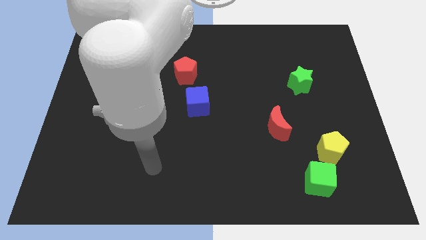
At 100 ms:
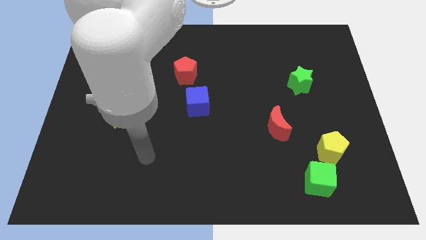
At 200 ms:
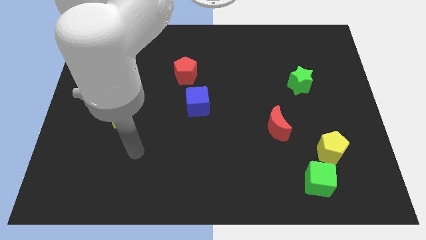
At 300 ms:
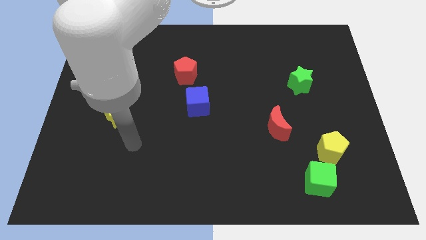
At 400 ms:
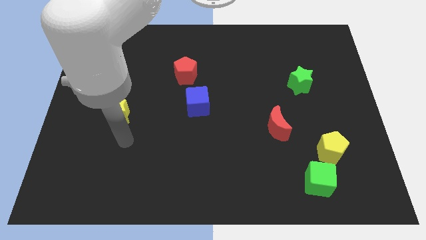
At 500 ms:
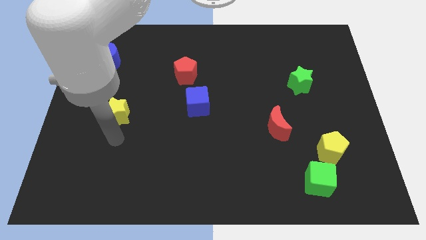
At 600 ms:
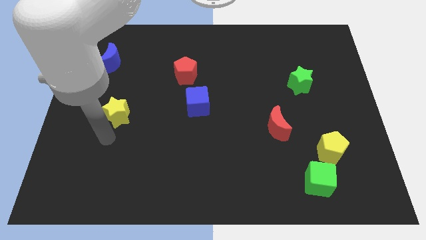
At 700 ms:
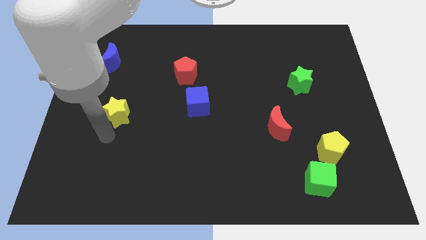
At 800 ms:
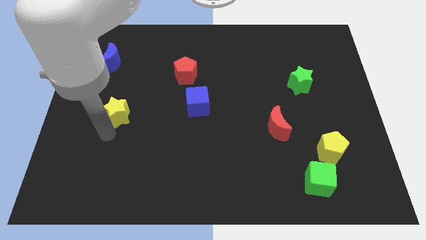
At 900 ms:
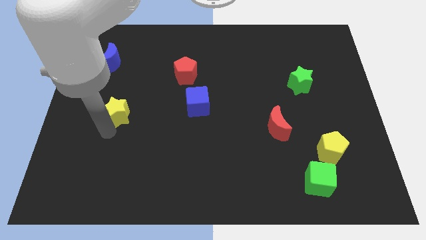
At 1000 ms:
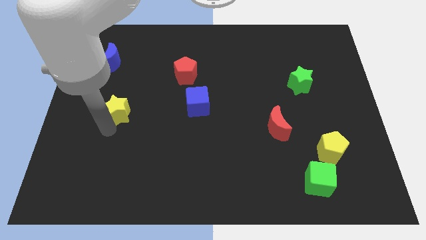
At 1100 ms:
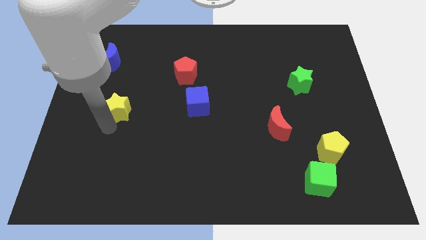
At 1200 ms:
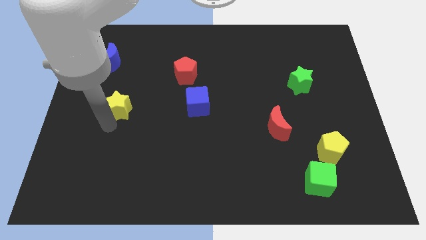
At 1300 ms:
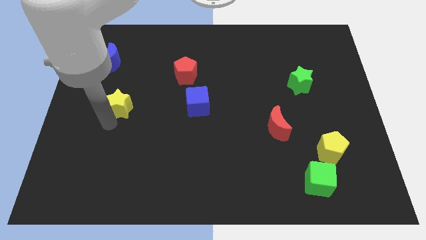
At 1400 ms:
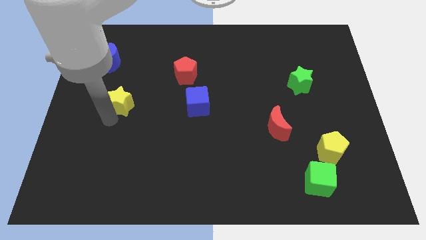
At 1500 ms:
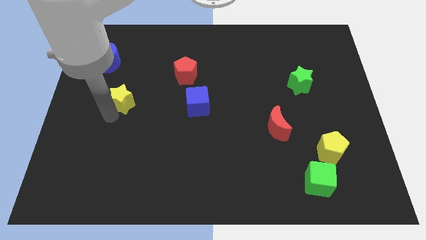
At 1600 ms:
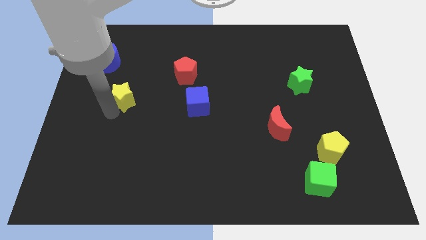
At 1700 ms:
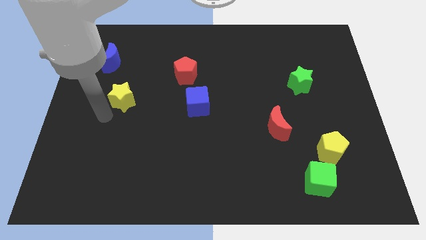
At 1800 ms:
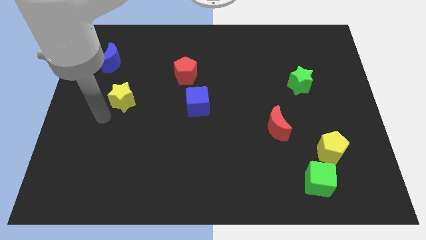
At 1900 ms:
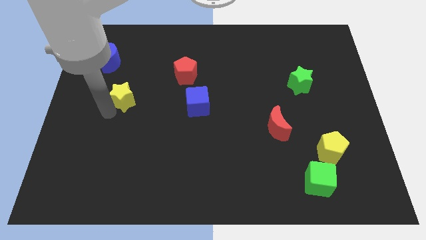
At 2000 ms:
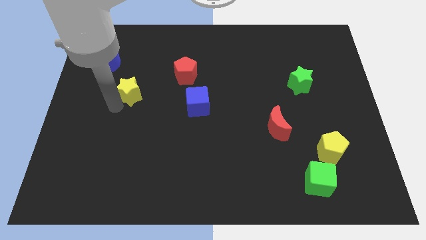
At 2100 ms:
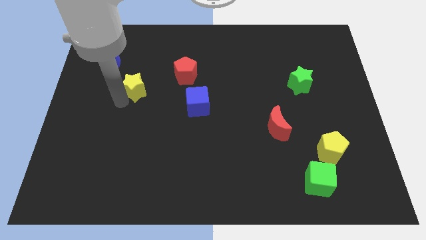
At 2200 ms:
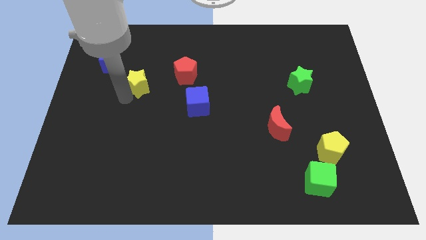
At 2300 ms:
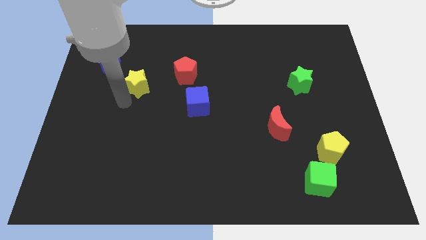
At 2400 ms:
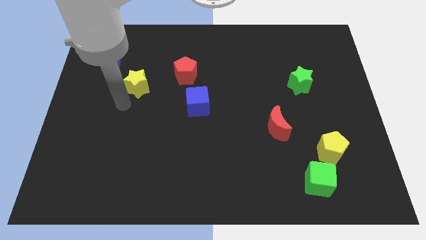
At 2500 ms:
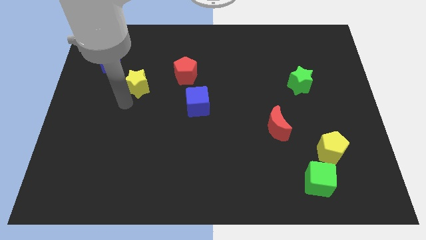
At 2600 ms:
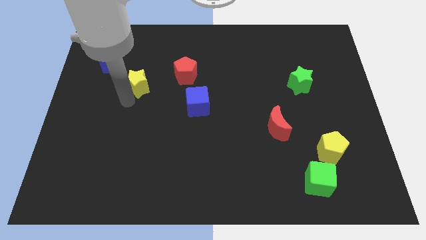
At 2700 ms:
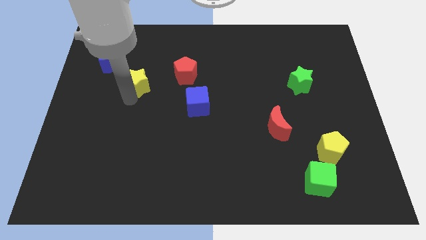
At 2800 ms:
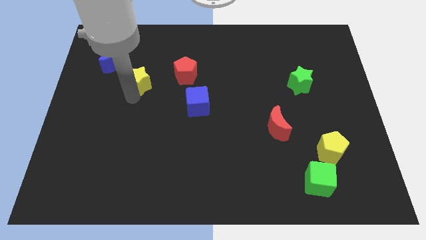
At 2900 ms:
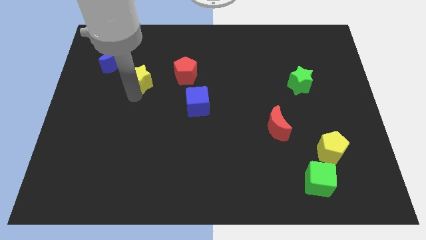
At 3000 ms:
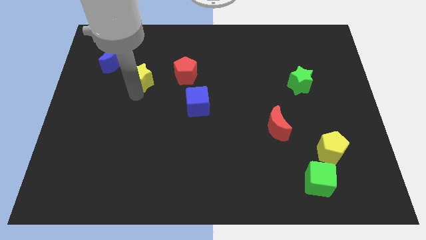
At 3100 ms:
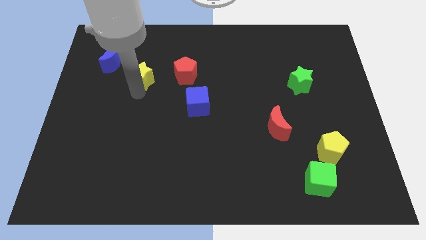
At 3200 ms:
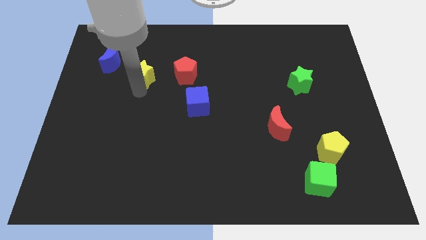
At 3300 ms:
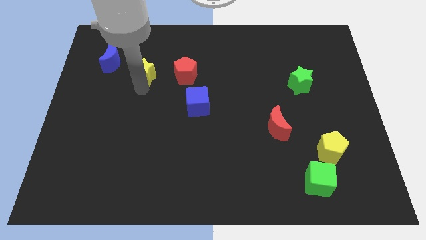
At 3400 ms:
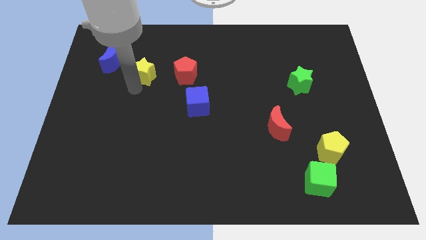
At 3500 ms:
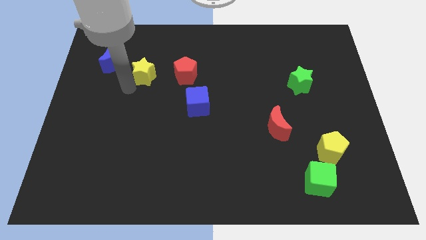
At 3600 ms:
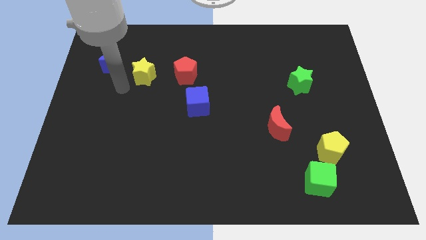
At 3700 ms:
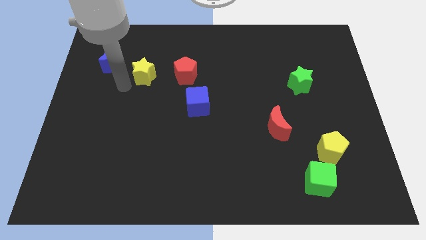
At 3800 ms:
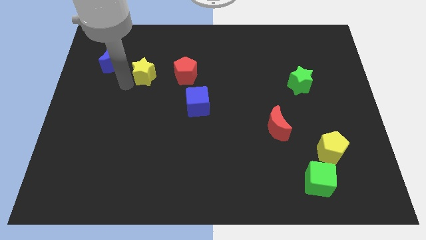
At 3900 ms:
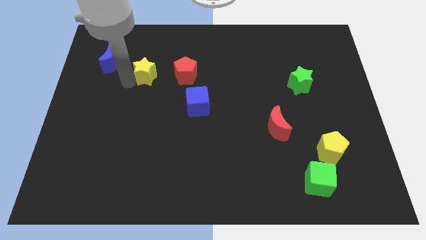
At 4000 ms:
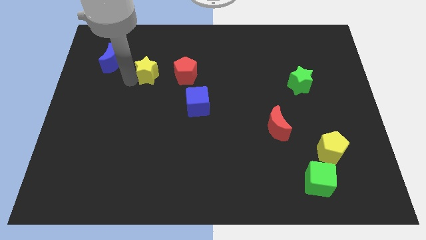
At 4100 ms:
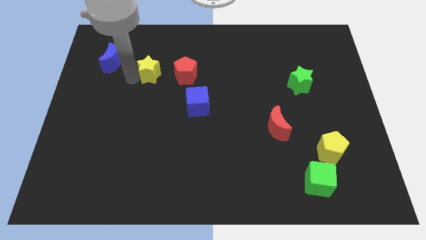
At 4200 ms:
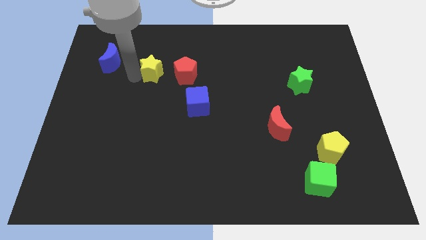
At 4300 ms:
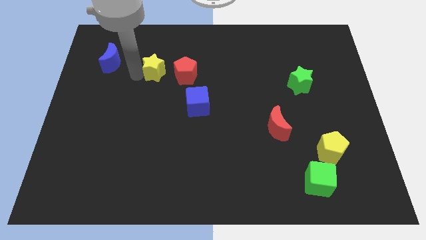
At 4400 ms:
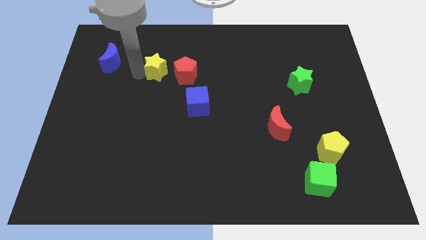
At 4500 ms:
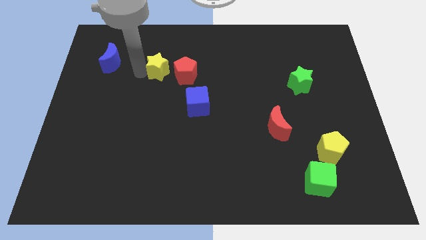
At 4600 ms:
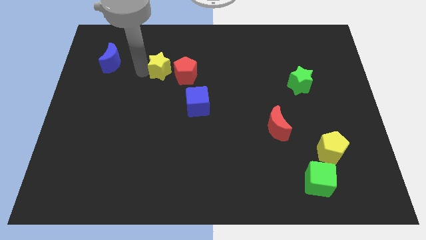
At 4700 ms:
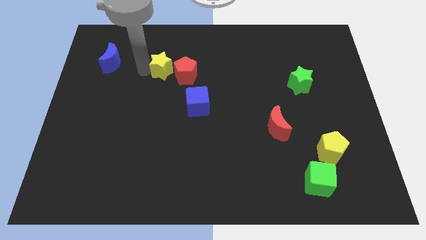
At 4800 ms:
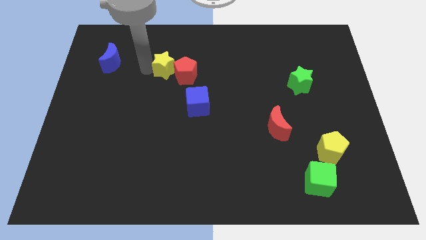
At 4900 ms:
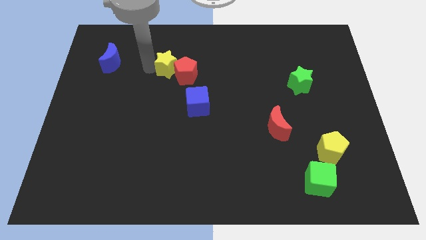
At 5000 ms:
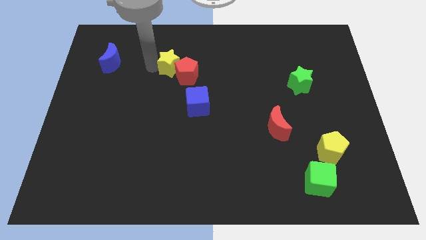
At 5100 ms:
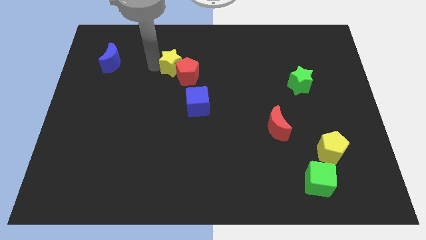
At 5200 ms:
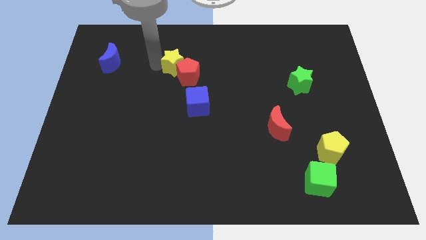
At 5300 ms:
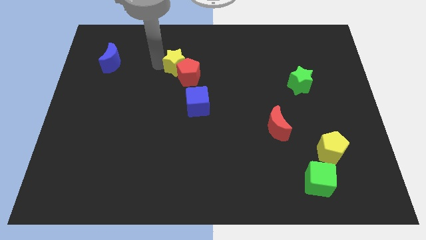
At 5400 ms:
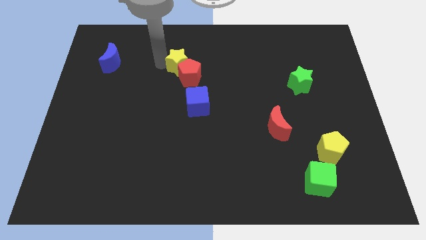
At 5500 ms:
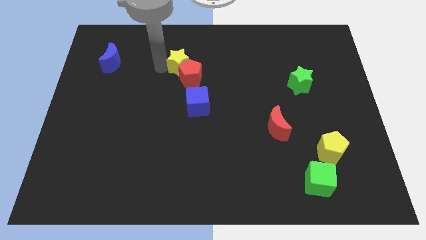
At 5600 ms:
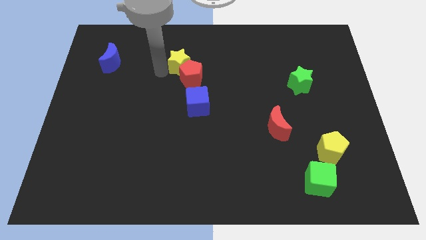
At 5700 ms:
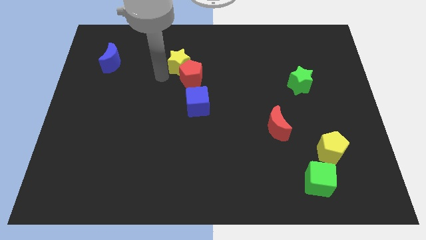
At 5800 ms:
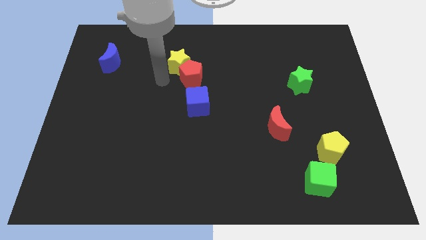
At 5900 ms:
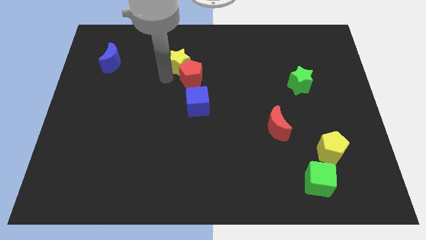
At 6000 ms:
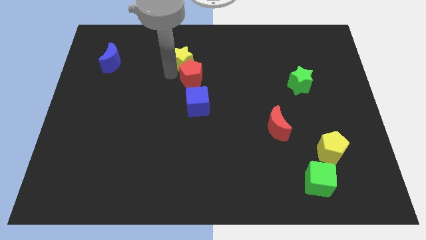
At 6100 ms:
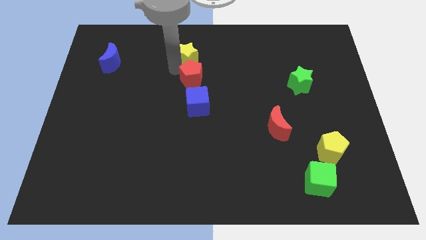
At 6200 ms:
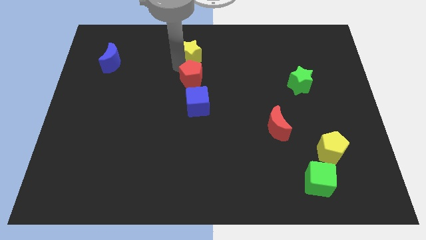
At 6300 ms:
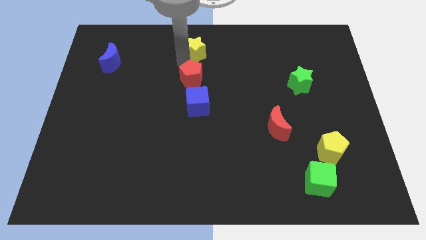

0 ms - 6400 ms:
put the yellow star to the top side

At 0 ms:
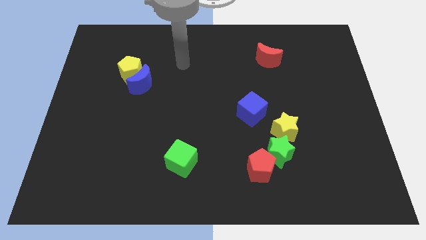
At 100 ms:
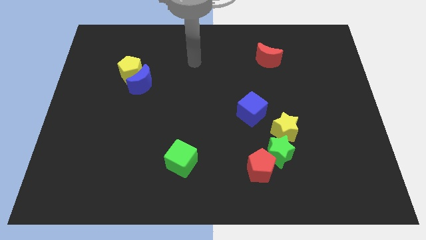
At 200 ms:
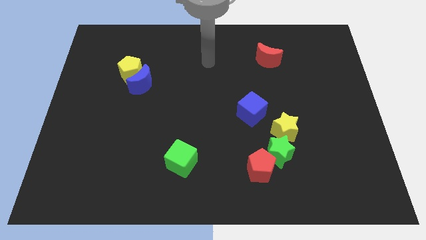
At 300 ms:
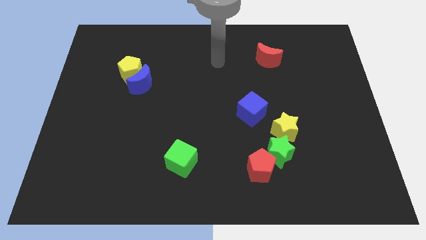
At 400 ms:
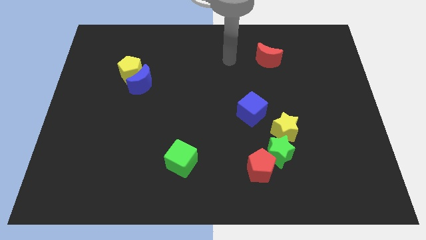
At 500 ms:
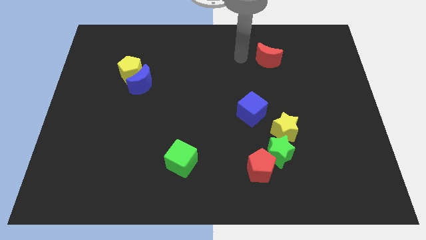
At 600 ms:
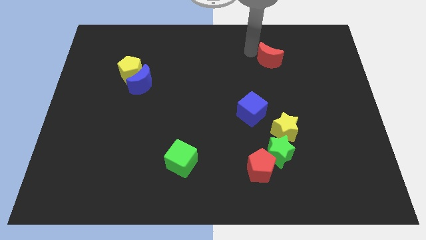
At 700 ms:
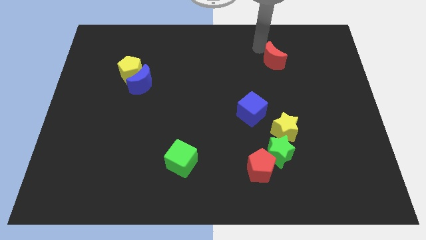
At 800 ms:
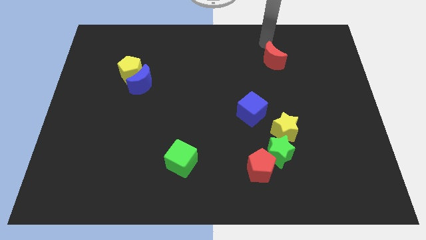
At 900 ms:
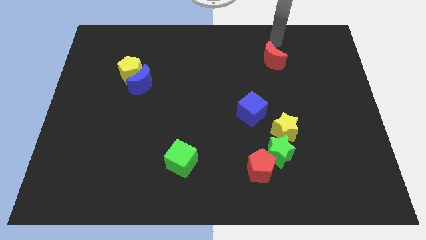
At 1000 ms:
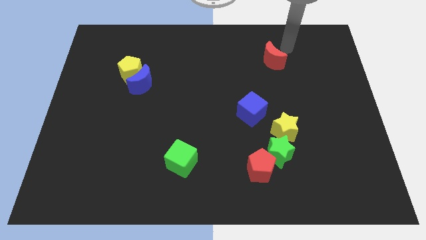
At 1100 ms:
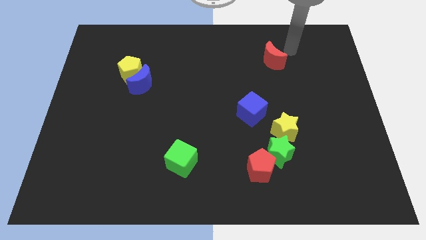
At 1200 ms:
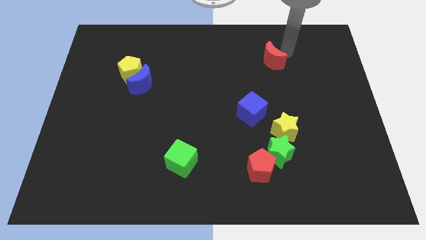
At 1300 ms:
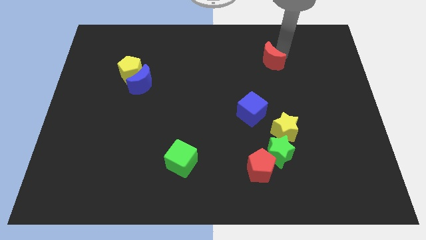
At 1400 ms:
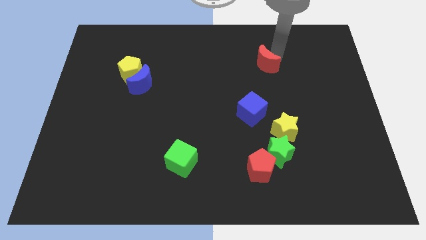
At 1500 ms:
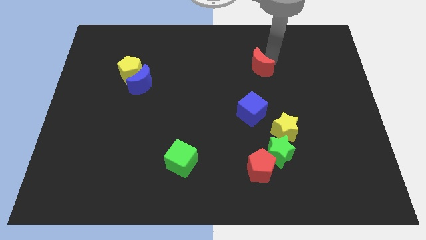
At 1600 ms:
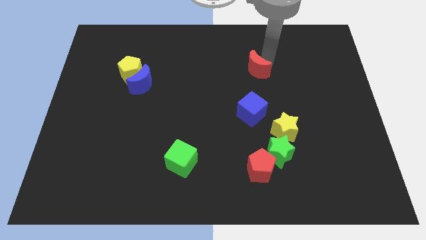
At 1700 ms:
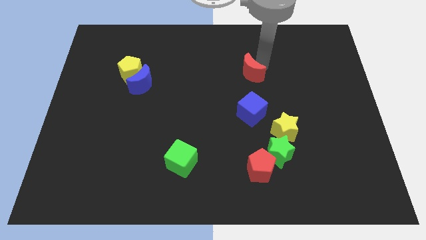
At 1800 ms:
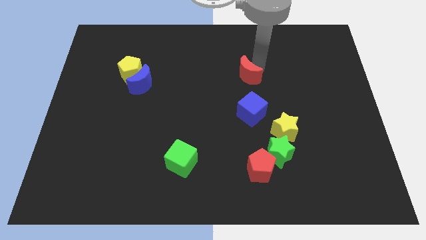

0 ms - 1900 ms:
put the red moon to the center of the board
